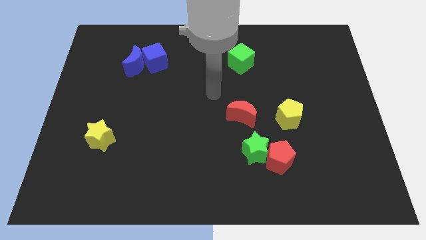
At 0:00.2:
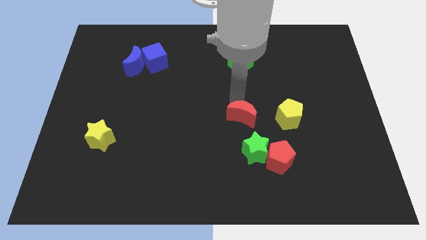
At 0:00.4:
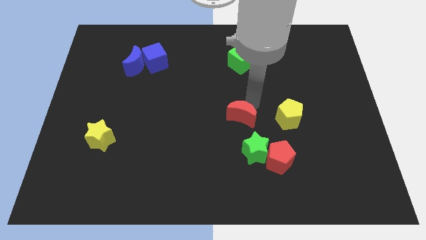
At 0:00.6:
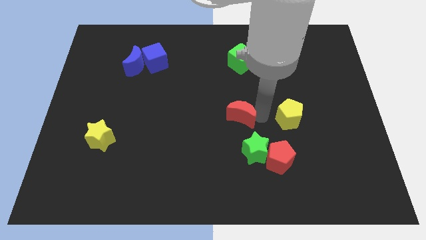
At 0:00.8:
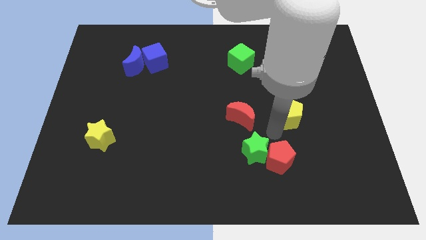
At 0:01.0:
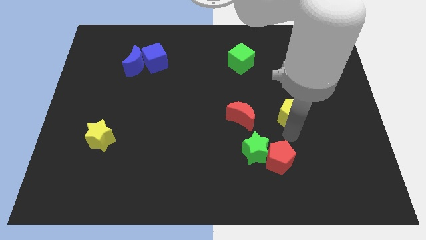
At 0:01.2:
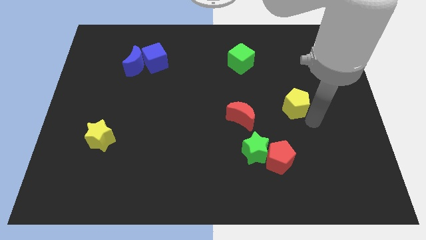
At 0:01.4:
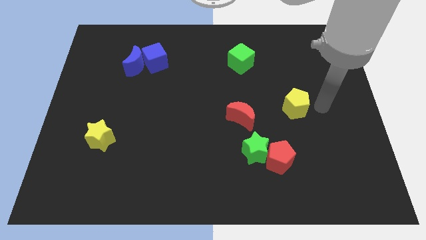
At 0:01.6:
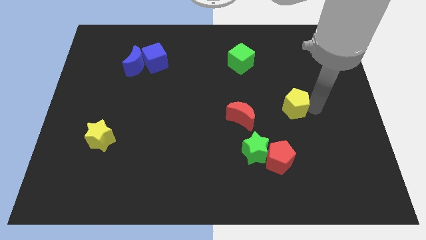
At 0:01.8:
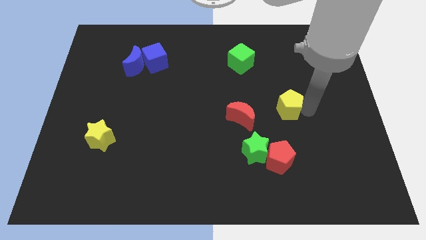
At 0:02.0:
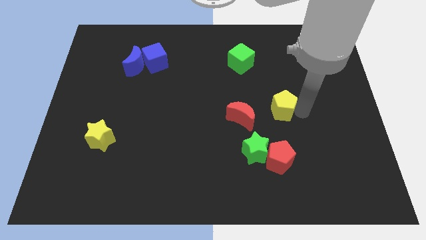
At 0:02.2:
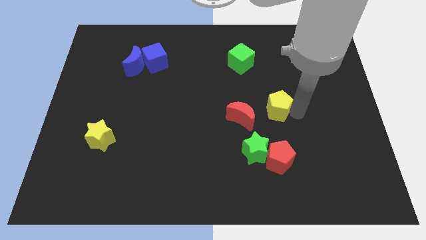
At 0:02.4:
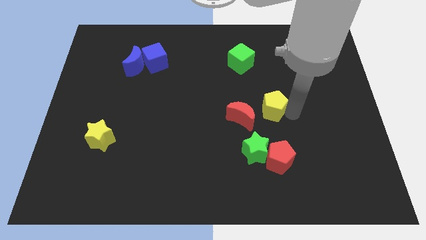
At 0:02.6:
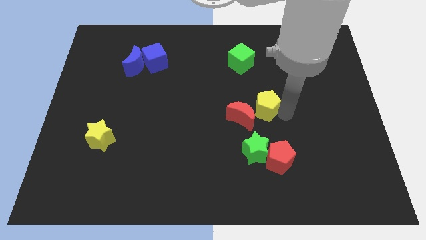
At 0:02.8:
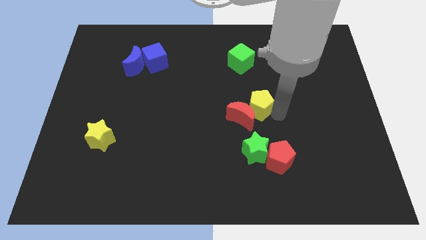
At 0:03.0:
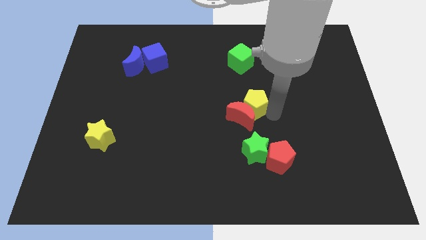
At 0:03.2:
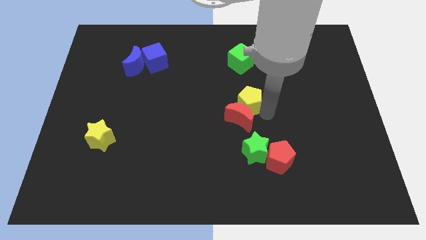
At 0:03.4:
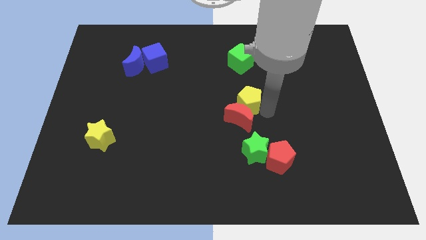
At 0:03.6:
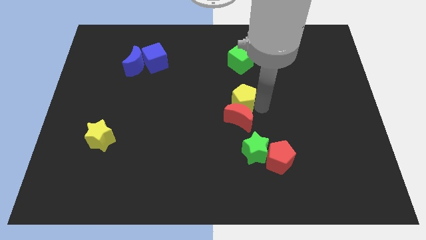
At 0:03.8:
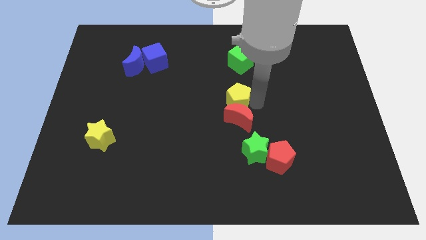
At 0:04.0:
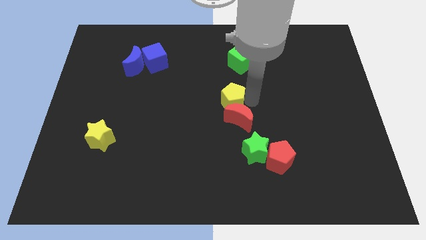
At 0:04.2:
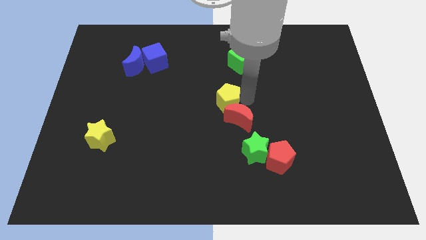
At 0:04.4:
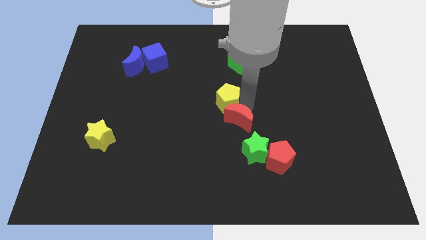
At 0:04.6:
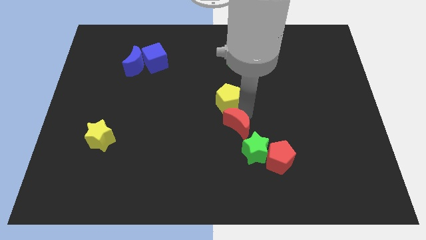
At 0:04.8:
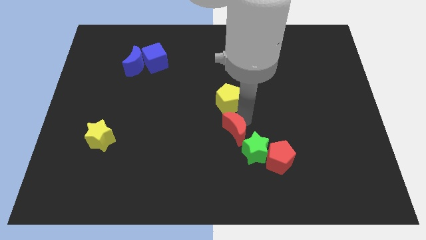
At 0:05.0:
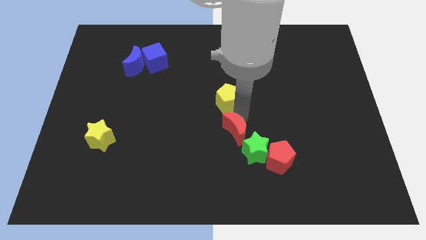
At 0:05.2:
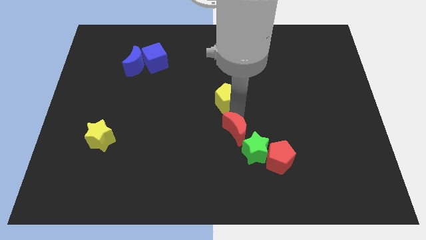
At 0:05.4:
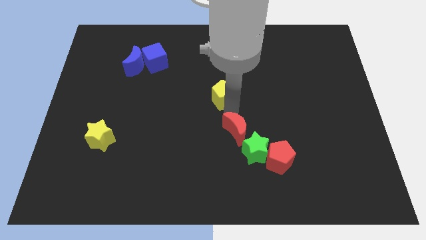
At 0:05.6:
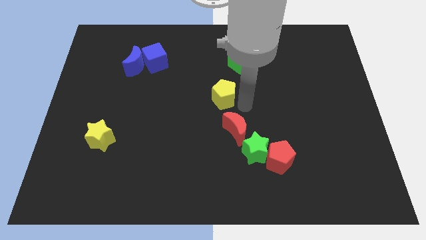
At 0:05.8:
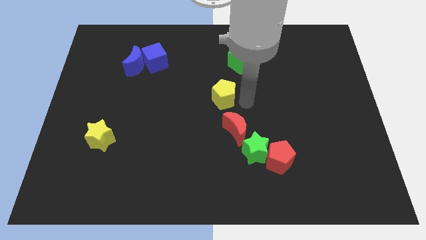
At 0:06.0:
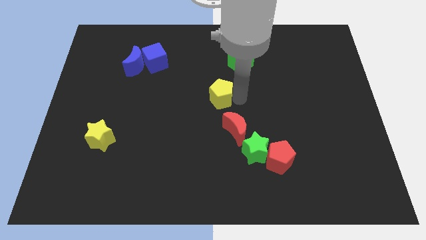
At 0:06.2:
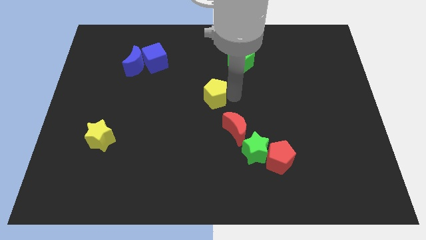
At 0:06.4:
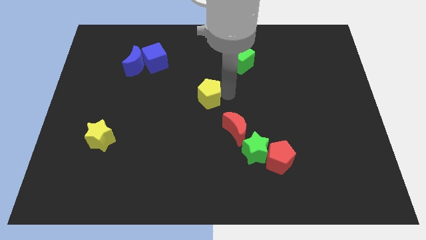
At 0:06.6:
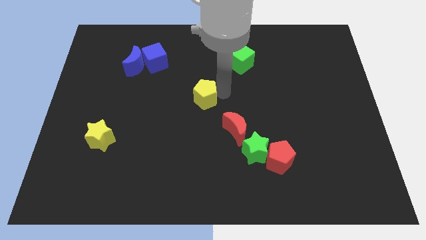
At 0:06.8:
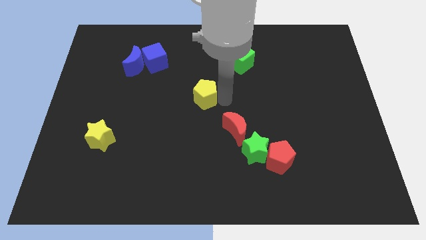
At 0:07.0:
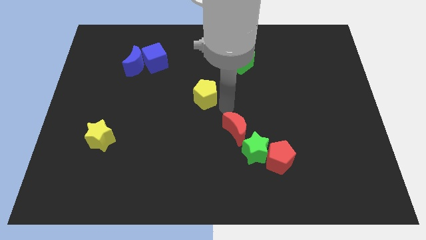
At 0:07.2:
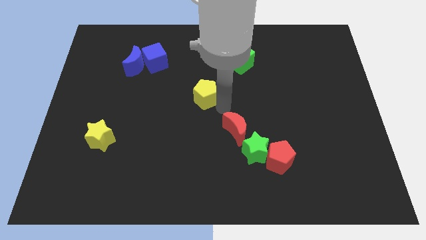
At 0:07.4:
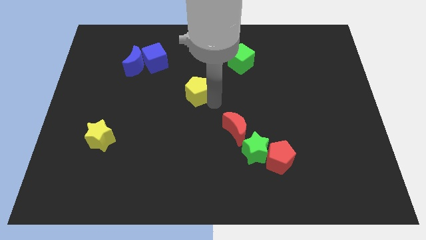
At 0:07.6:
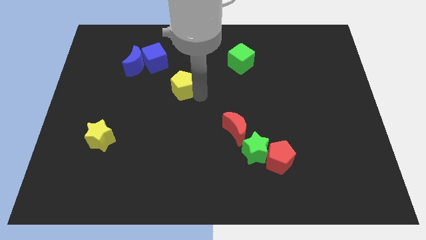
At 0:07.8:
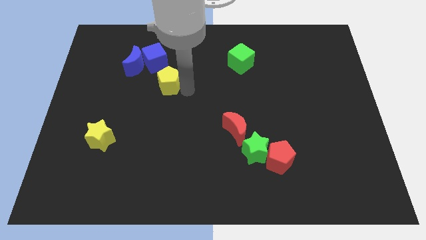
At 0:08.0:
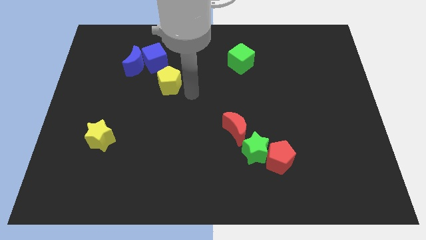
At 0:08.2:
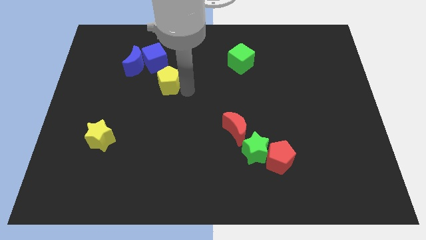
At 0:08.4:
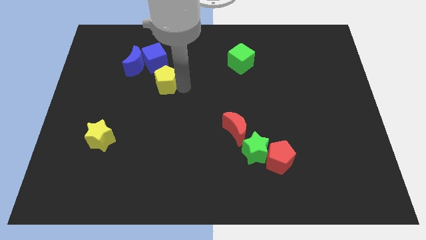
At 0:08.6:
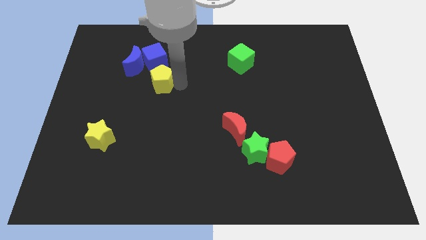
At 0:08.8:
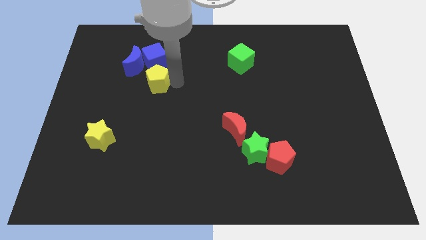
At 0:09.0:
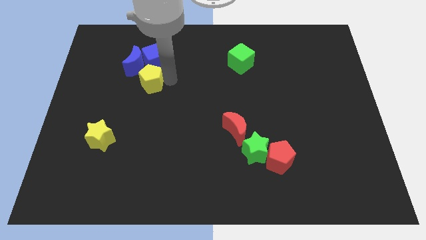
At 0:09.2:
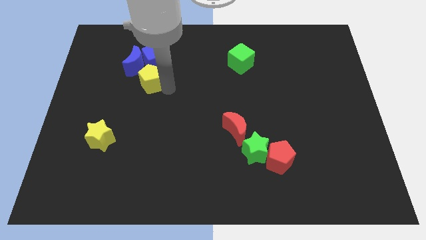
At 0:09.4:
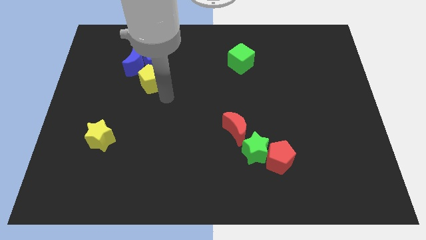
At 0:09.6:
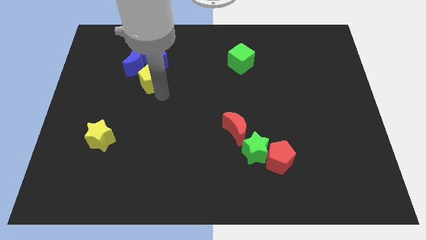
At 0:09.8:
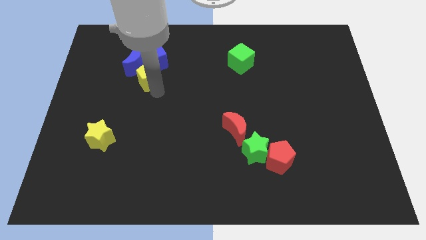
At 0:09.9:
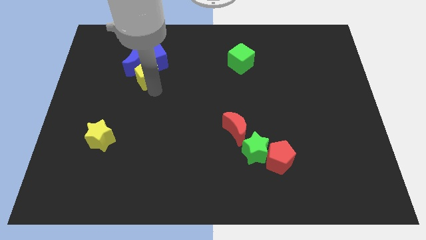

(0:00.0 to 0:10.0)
slide the yellow pentagon towards the blue moon

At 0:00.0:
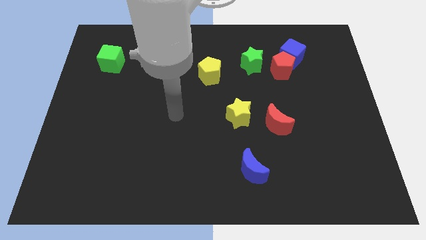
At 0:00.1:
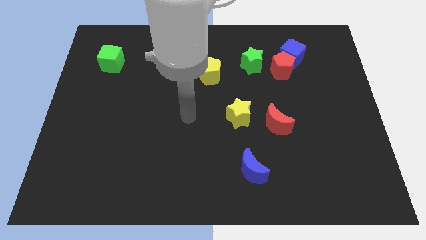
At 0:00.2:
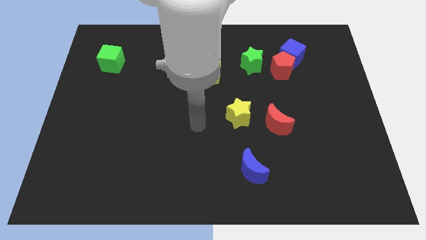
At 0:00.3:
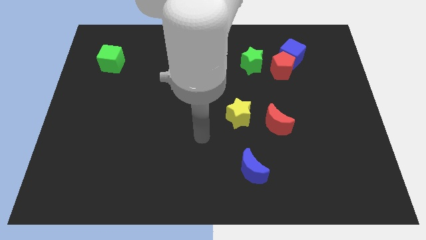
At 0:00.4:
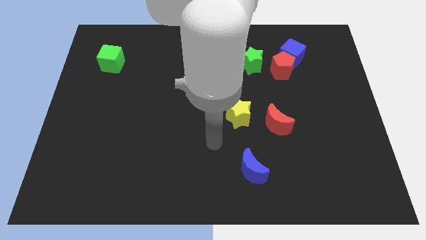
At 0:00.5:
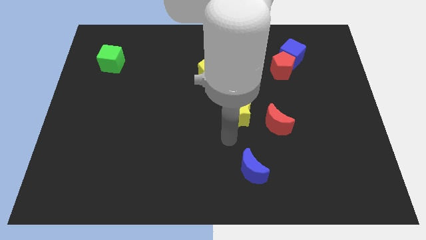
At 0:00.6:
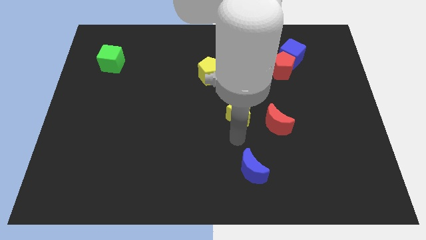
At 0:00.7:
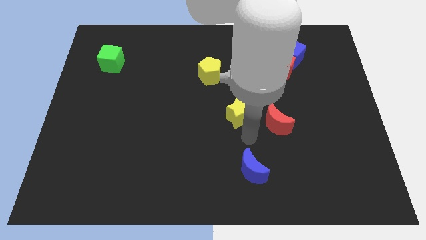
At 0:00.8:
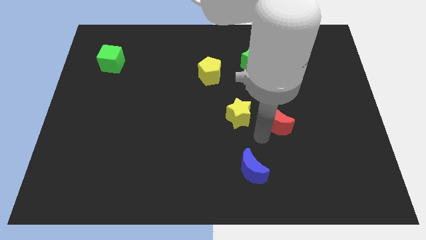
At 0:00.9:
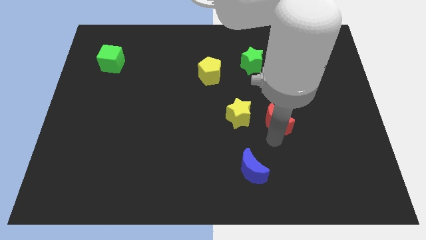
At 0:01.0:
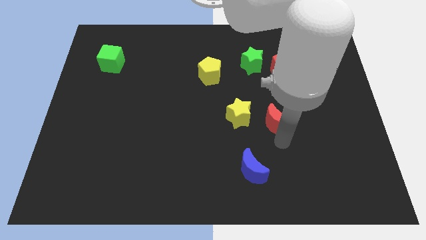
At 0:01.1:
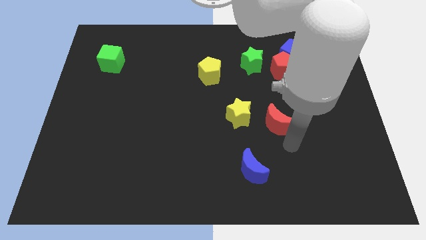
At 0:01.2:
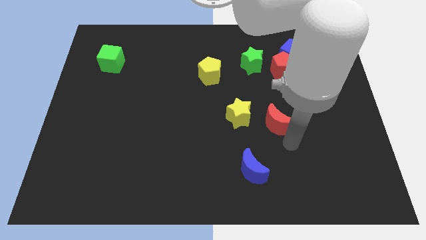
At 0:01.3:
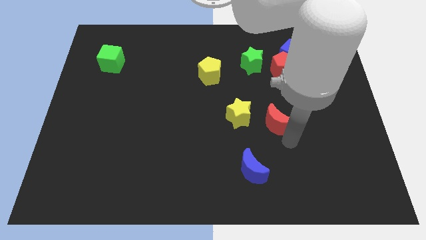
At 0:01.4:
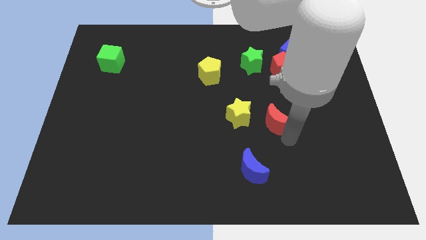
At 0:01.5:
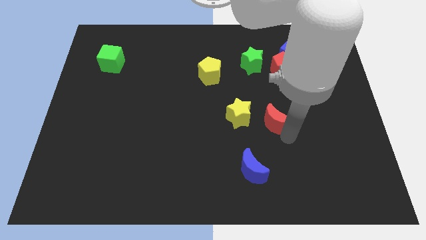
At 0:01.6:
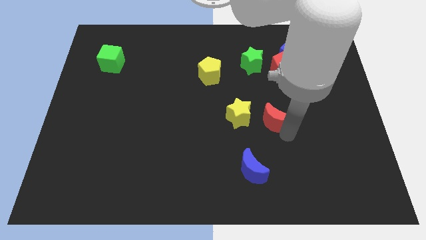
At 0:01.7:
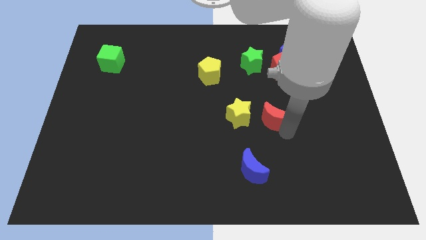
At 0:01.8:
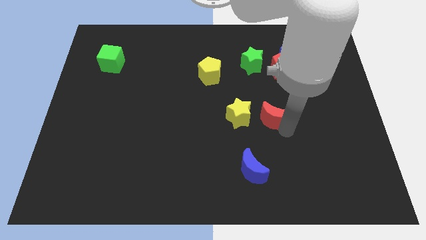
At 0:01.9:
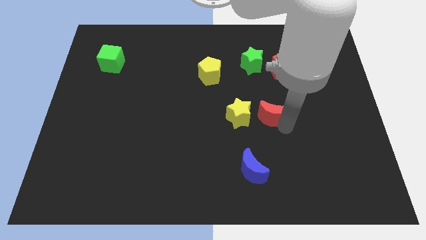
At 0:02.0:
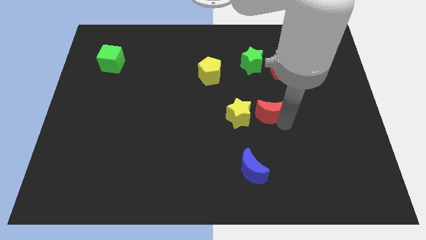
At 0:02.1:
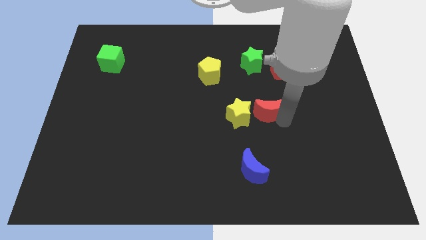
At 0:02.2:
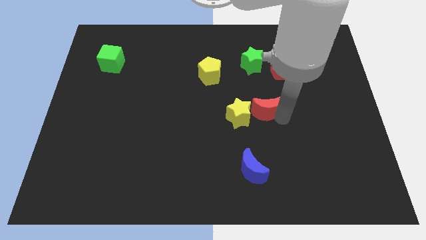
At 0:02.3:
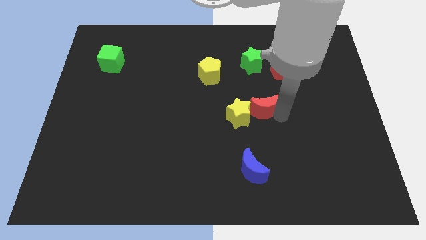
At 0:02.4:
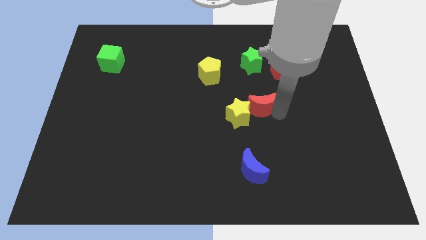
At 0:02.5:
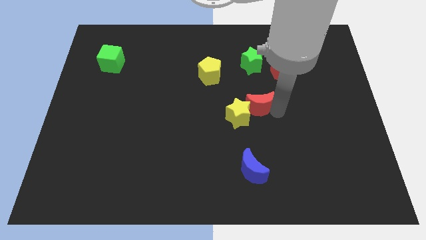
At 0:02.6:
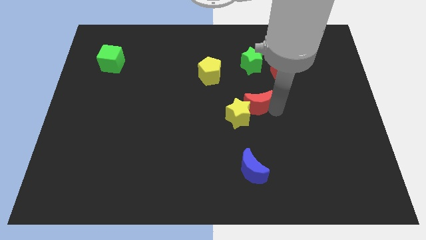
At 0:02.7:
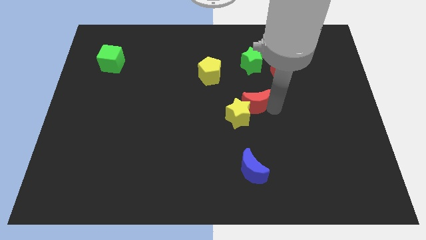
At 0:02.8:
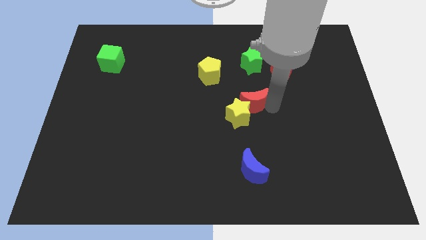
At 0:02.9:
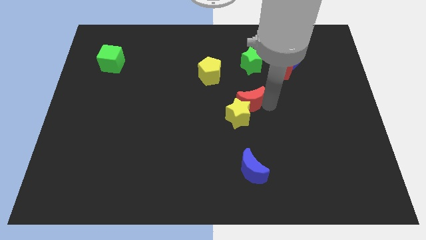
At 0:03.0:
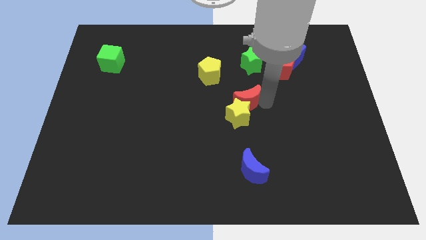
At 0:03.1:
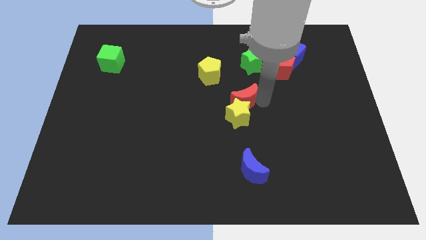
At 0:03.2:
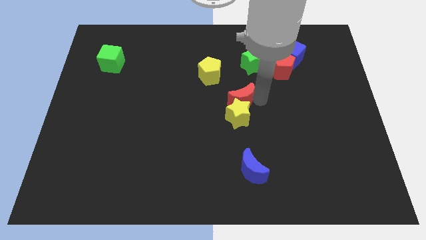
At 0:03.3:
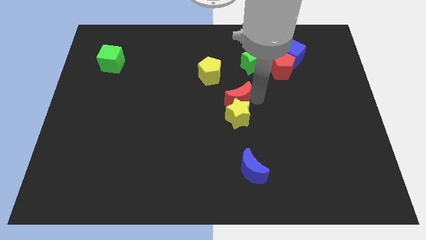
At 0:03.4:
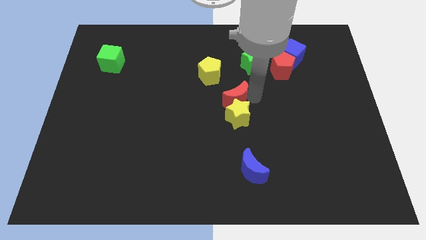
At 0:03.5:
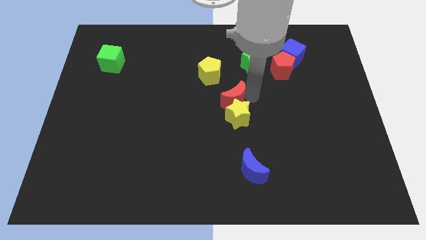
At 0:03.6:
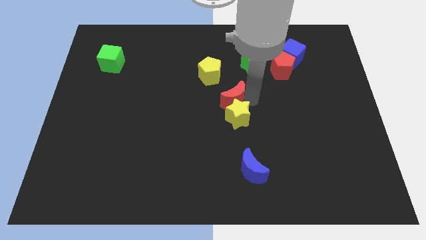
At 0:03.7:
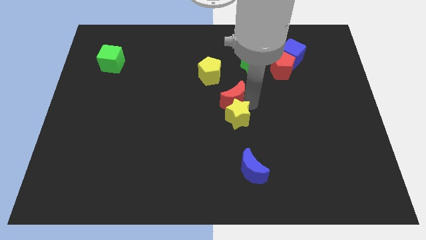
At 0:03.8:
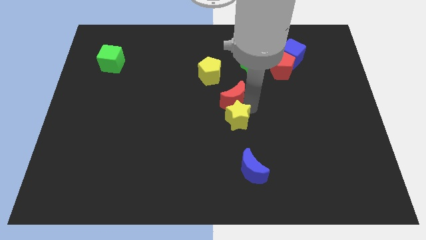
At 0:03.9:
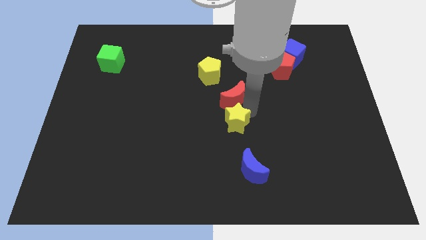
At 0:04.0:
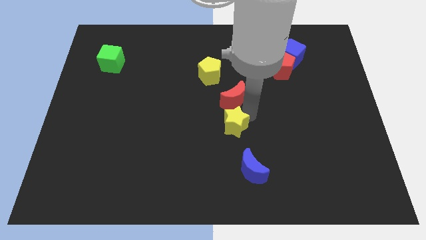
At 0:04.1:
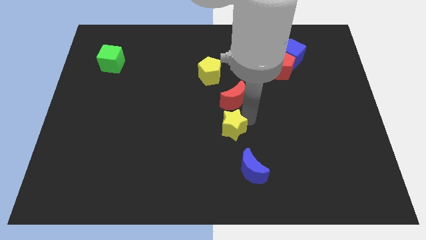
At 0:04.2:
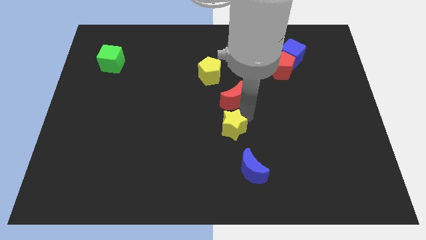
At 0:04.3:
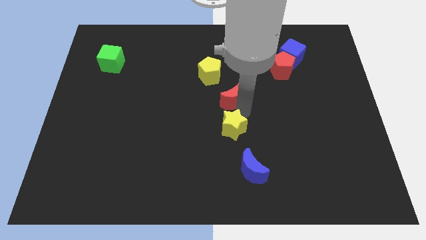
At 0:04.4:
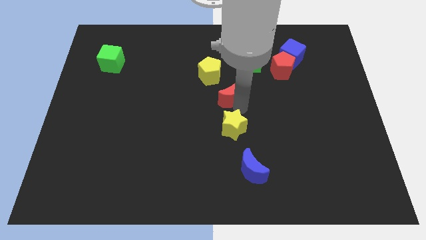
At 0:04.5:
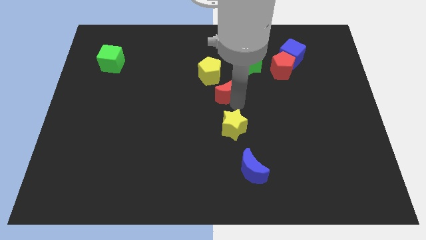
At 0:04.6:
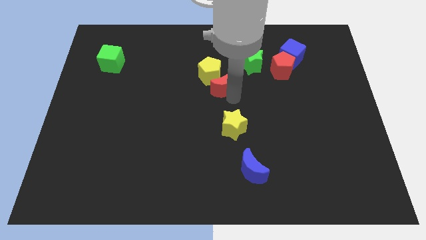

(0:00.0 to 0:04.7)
put the red moon to the yellow pentagon
